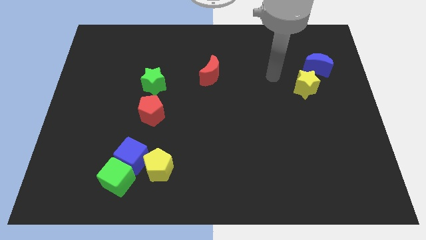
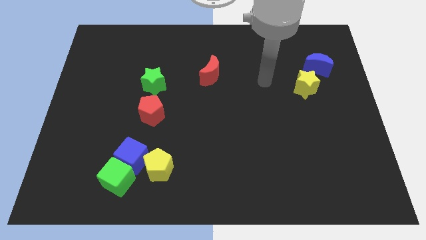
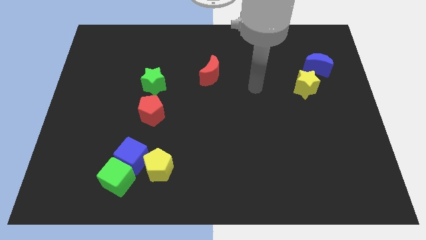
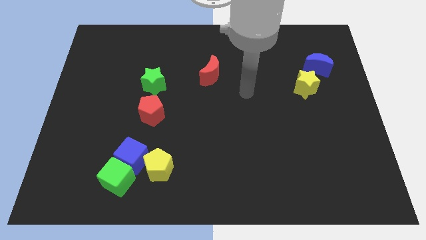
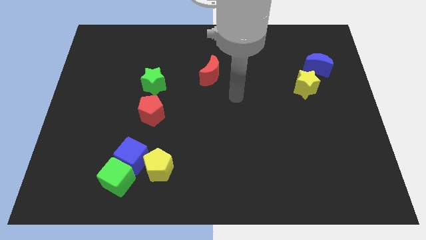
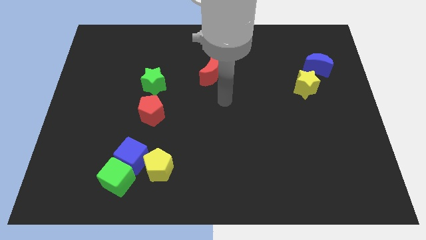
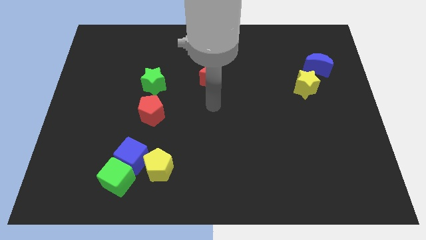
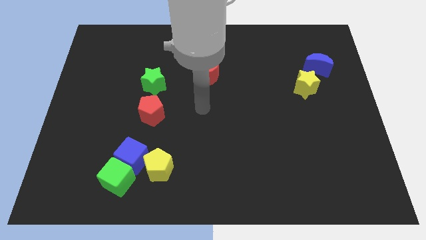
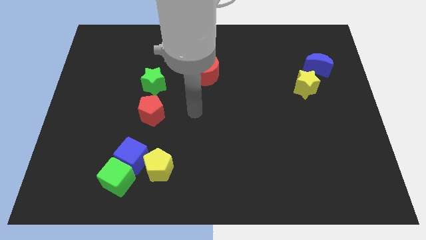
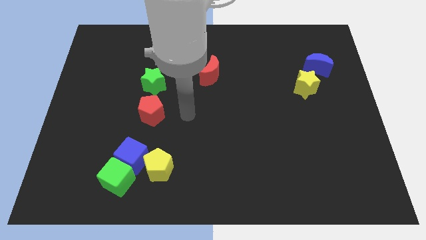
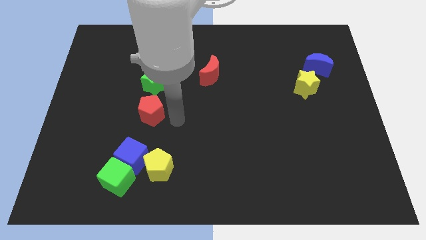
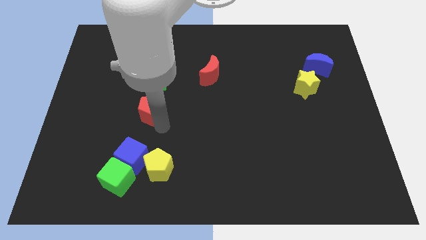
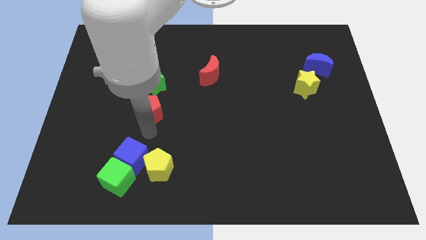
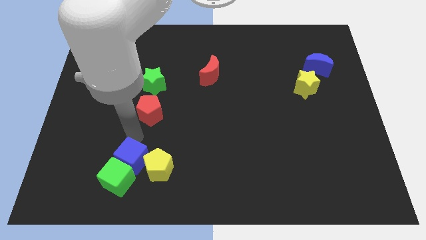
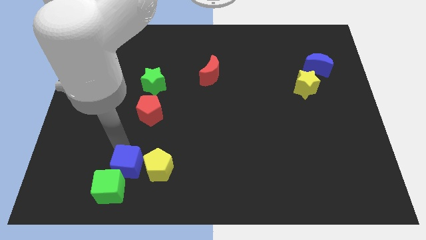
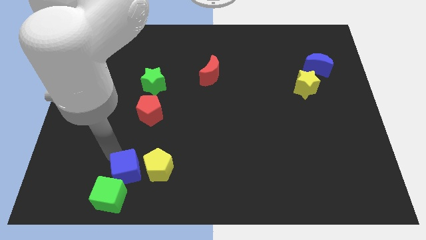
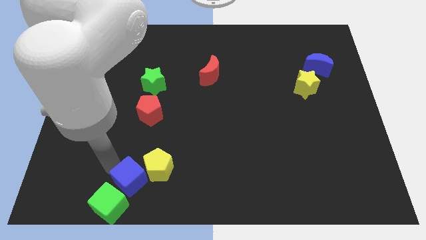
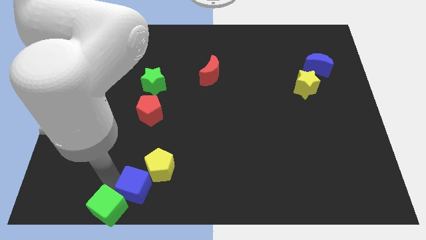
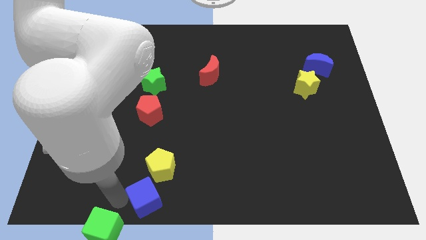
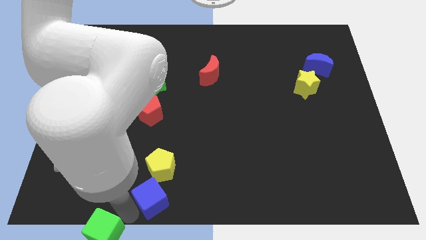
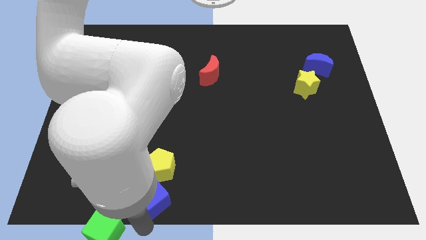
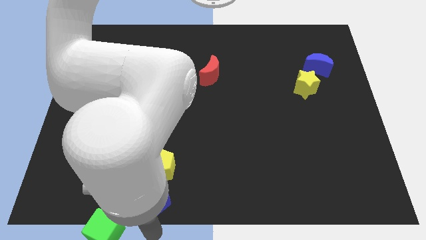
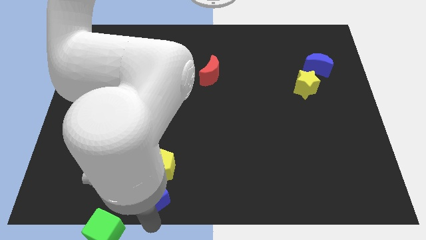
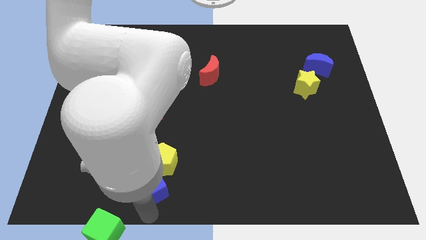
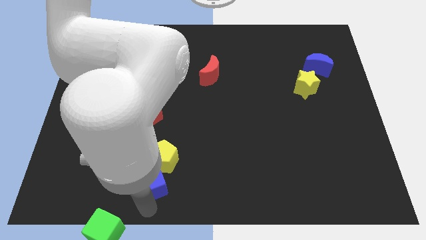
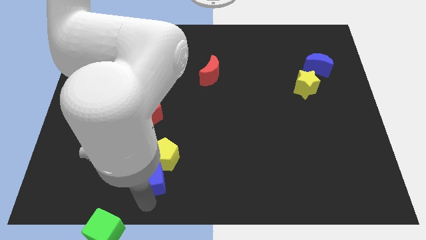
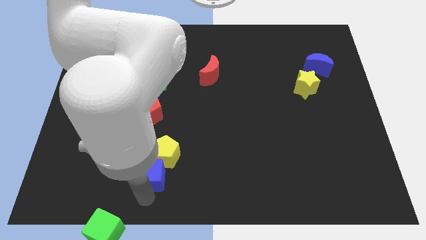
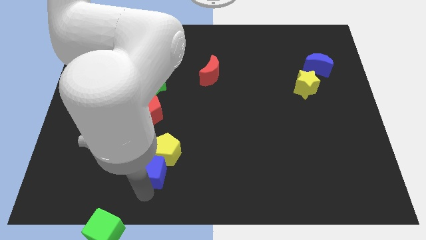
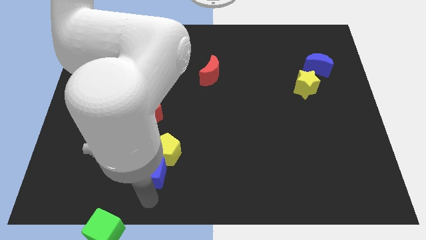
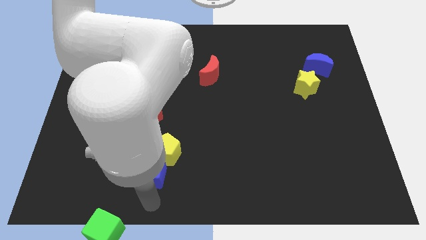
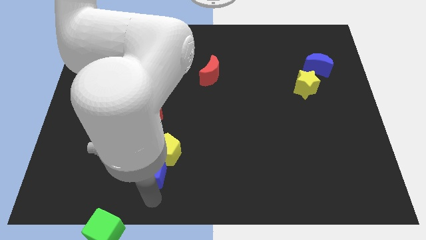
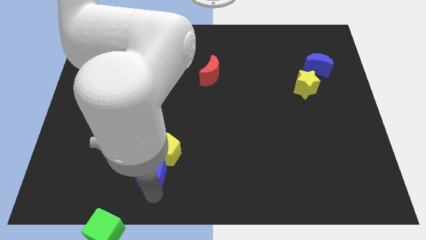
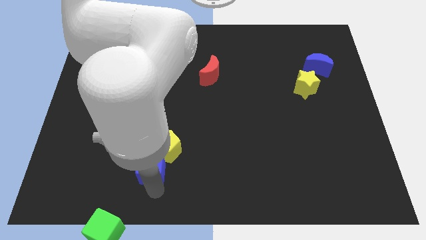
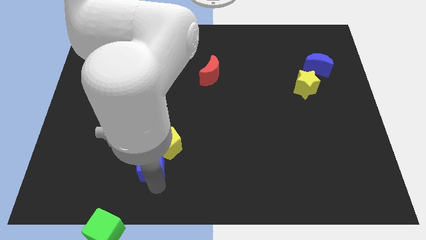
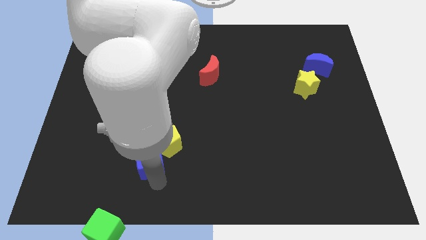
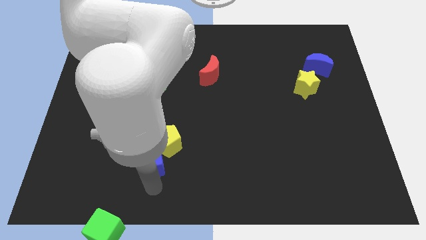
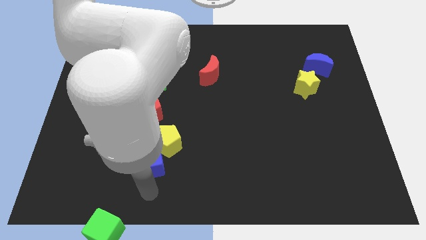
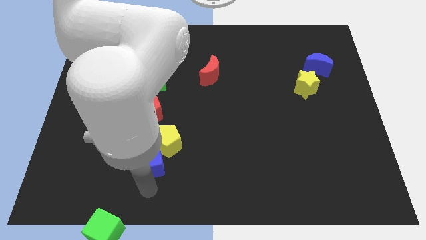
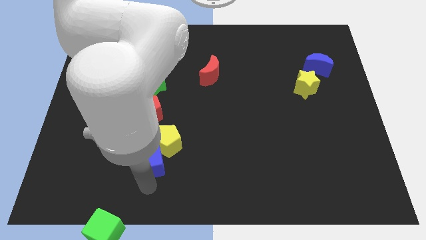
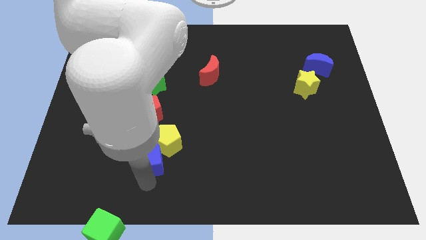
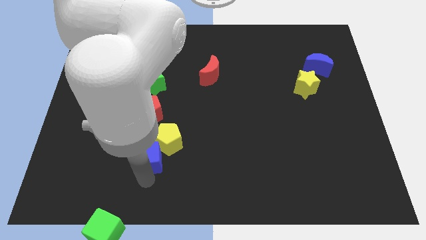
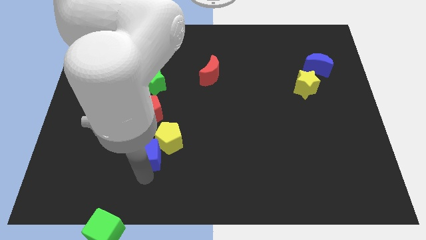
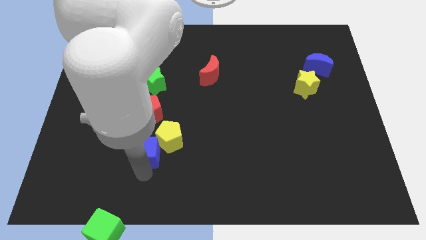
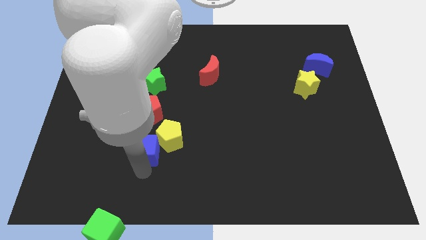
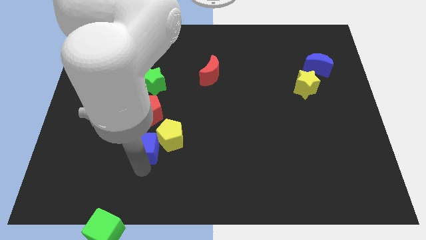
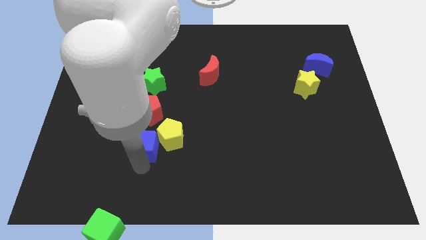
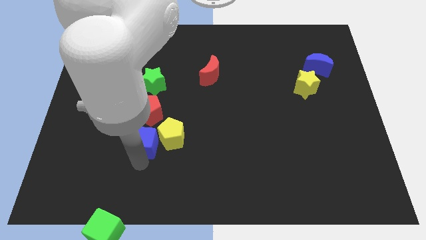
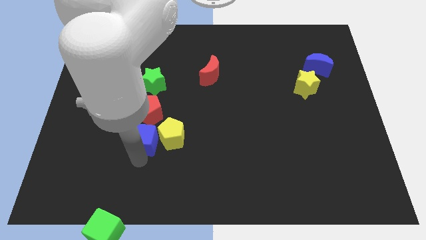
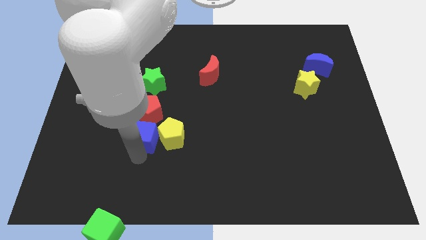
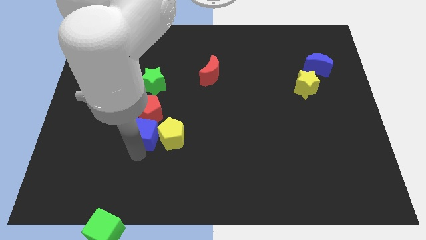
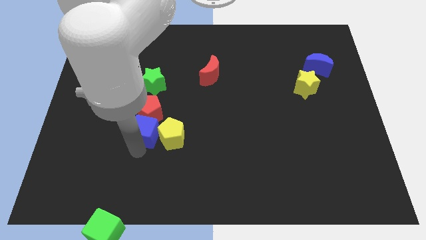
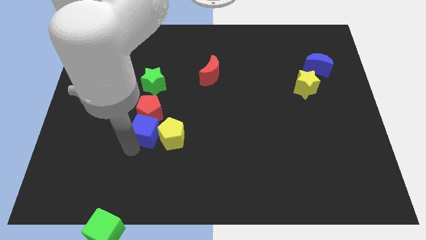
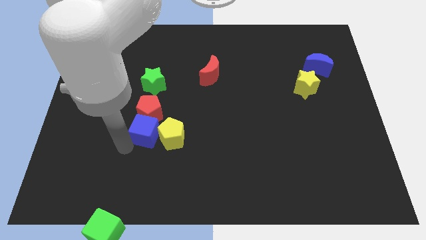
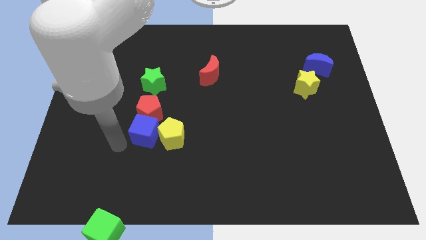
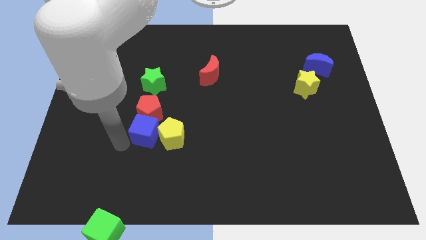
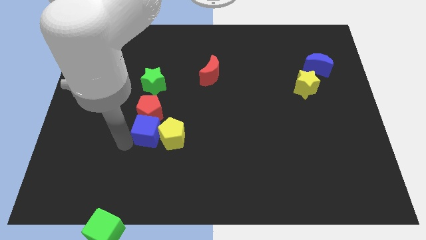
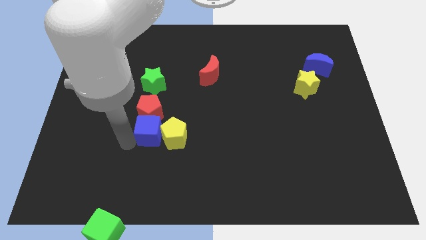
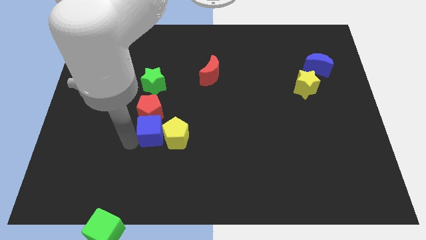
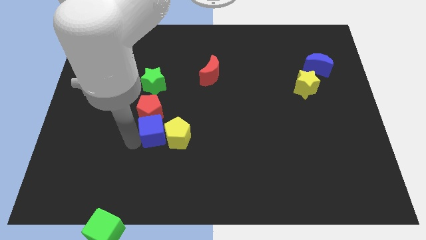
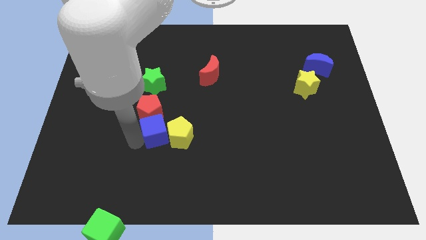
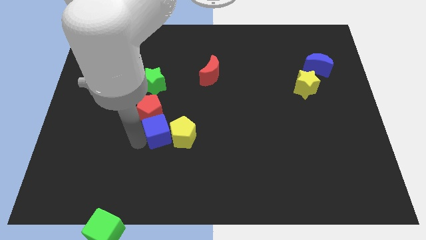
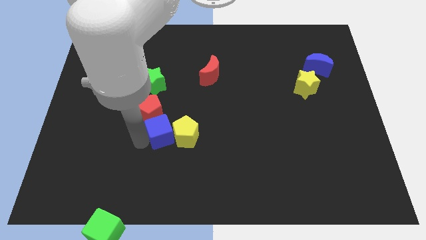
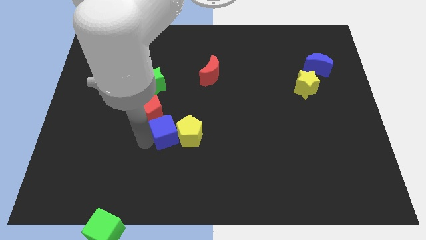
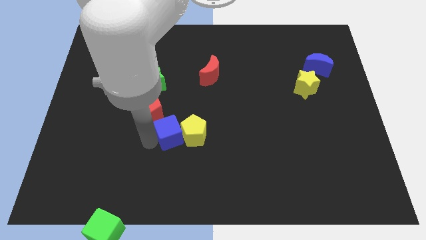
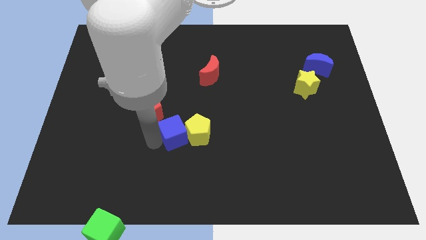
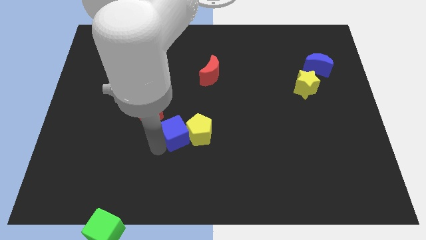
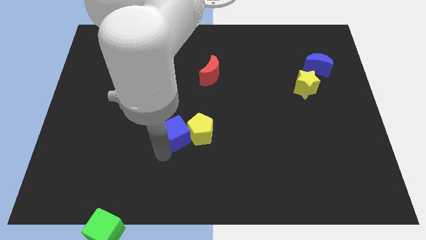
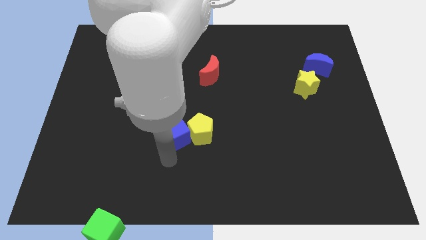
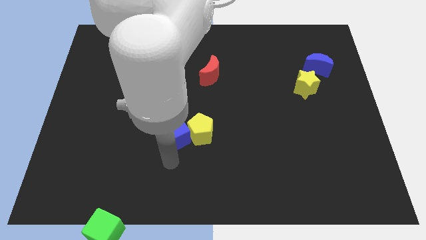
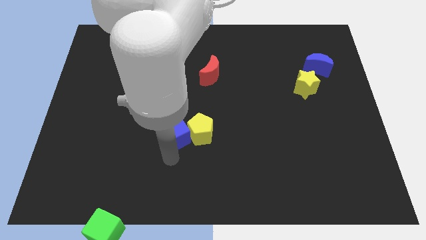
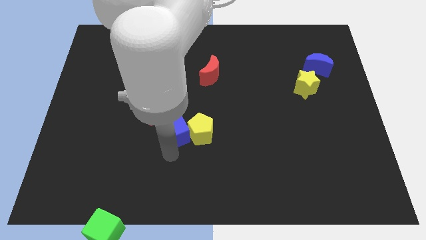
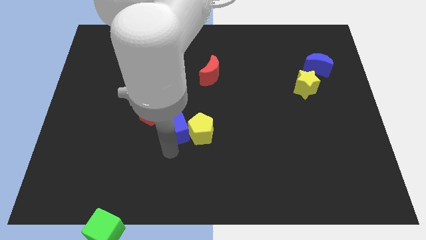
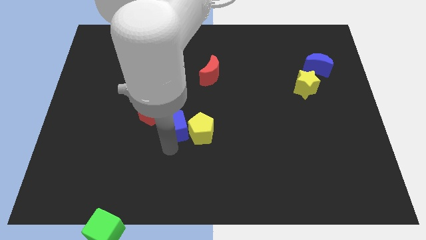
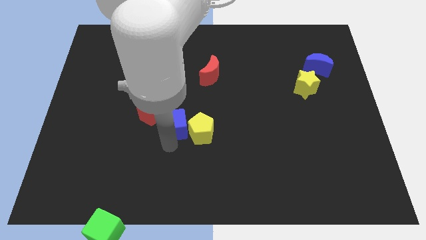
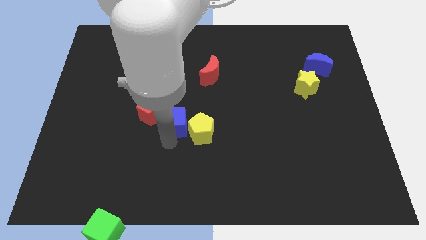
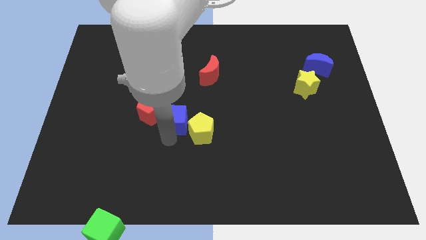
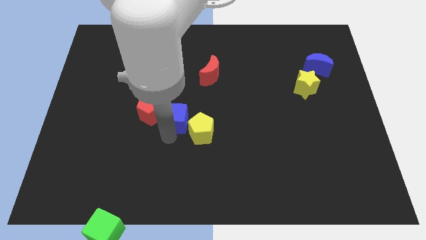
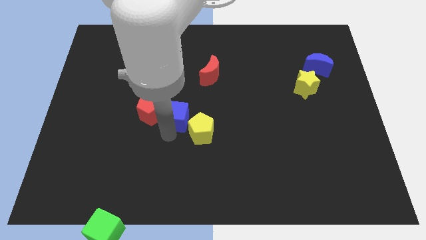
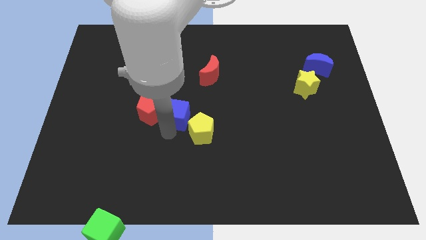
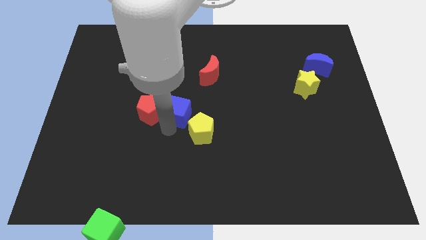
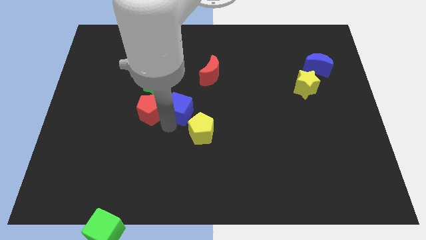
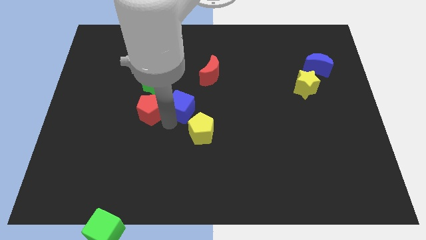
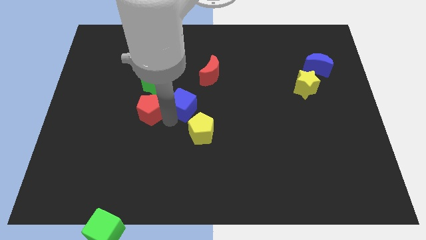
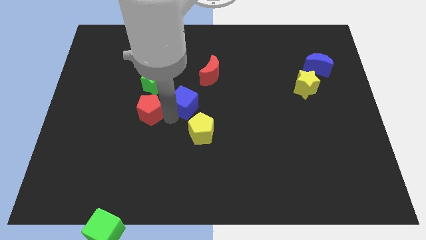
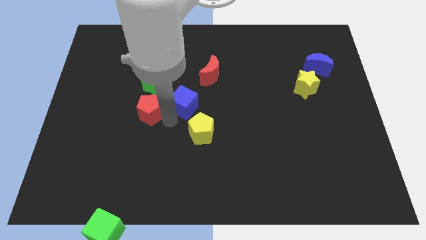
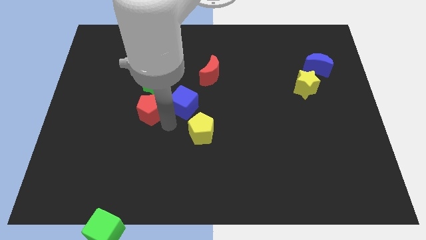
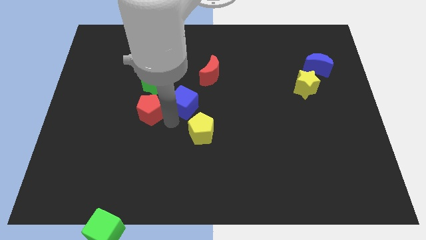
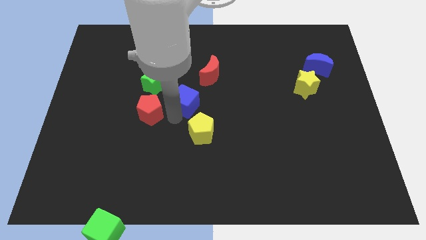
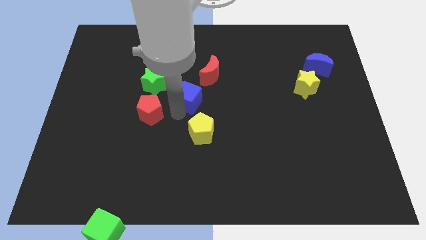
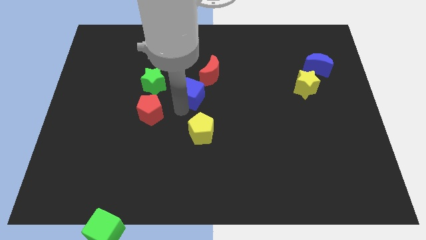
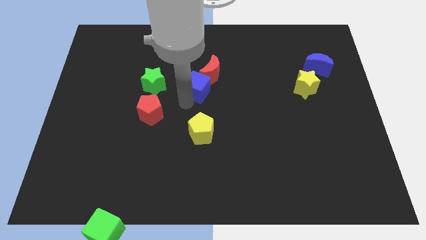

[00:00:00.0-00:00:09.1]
put the blue cube to the red moon
